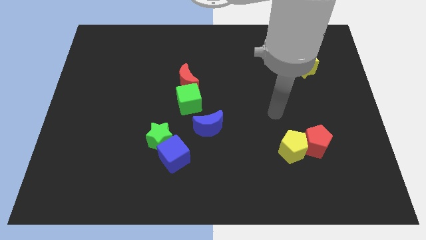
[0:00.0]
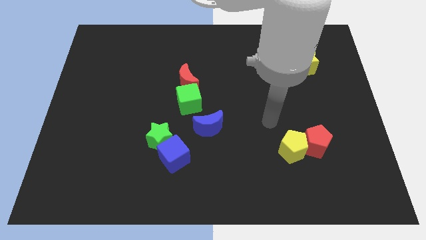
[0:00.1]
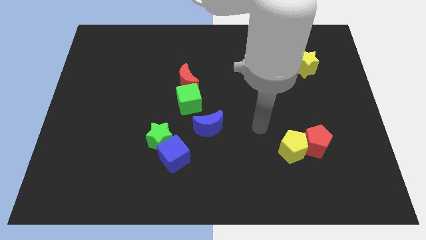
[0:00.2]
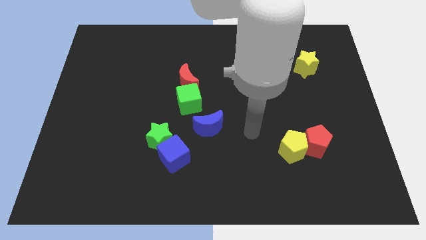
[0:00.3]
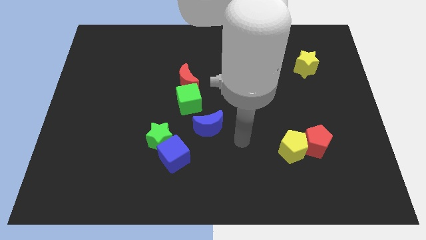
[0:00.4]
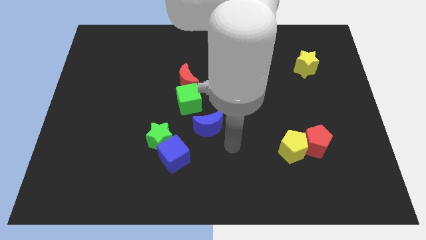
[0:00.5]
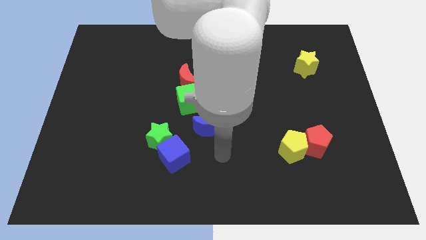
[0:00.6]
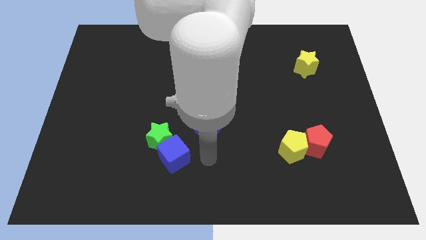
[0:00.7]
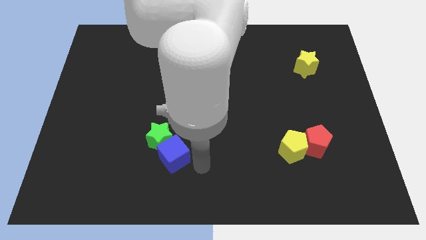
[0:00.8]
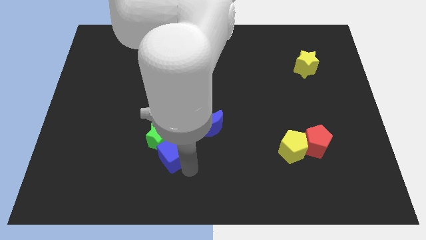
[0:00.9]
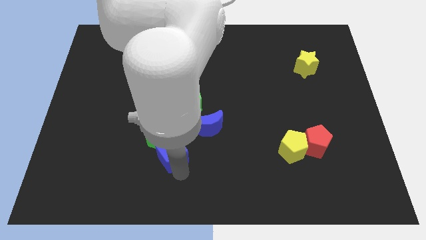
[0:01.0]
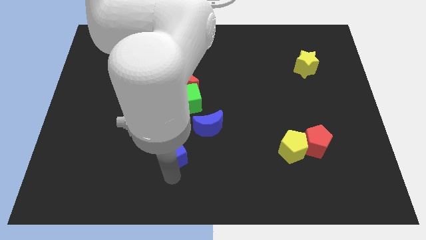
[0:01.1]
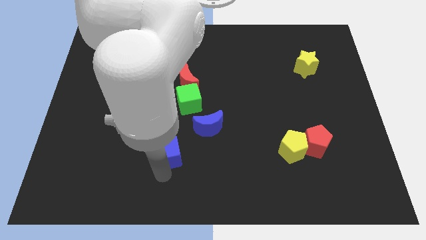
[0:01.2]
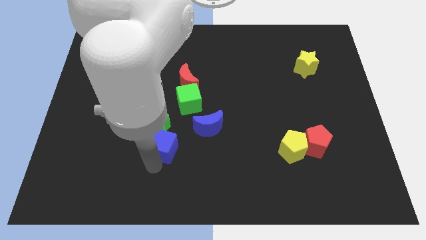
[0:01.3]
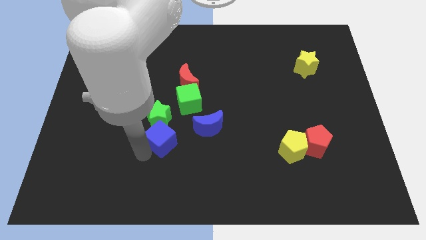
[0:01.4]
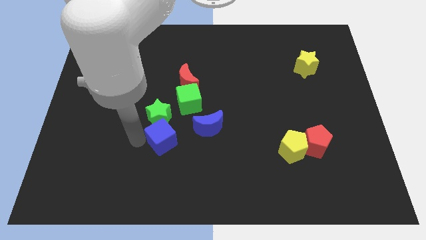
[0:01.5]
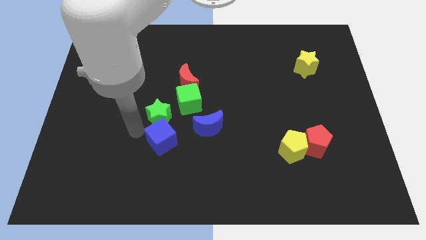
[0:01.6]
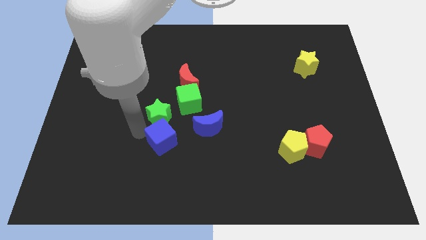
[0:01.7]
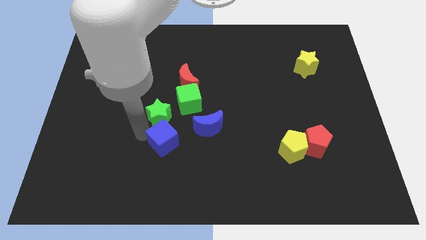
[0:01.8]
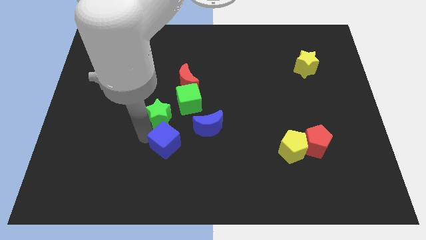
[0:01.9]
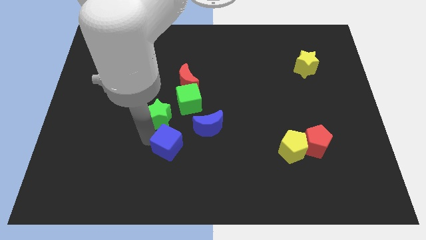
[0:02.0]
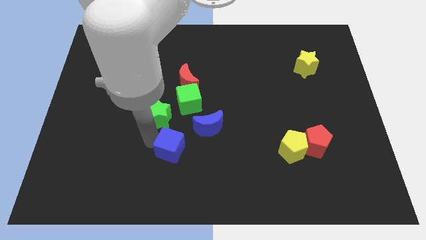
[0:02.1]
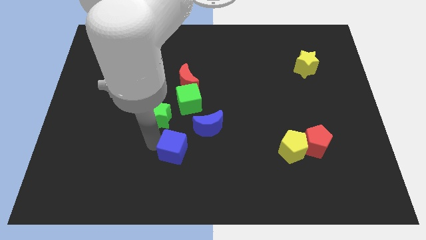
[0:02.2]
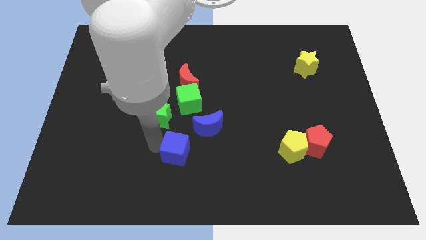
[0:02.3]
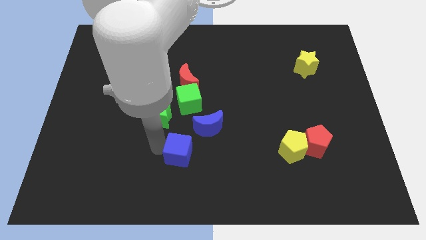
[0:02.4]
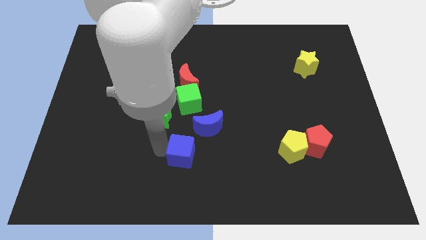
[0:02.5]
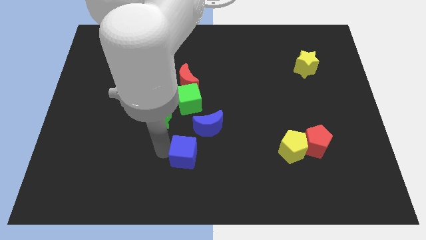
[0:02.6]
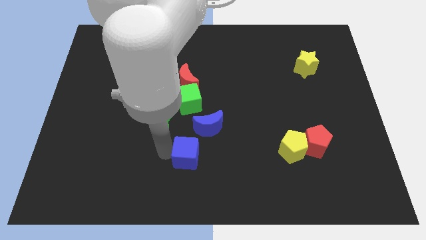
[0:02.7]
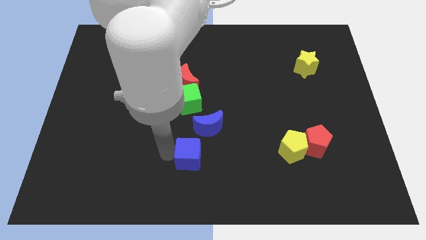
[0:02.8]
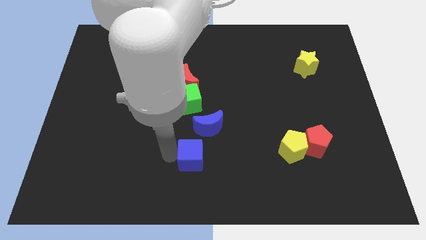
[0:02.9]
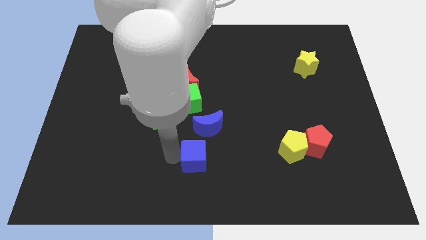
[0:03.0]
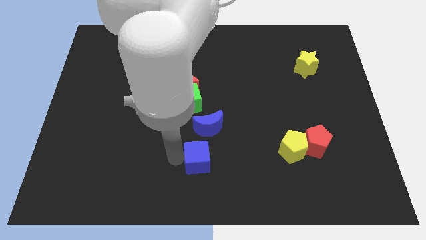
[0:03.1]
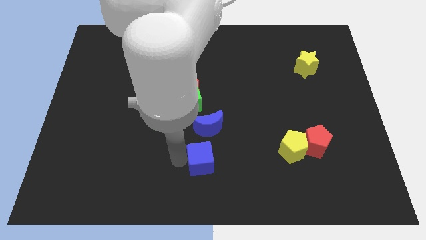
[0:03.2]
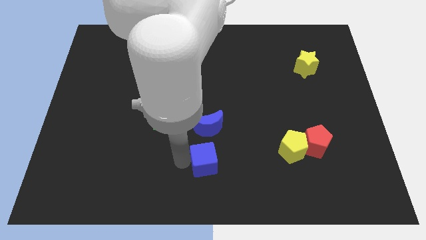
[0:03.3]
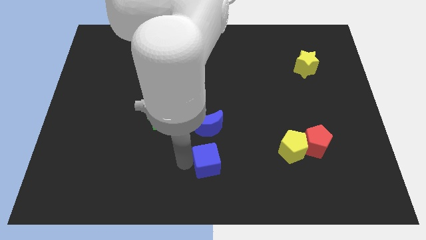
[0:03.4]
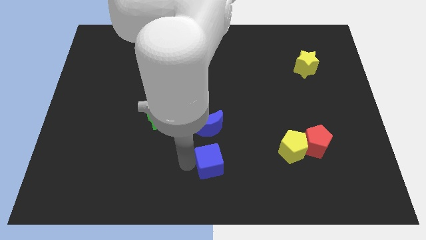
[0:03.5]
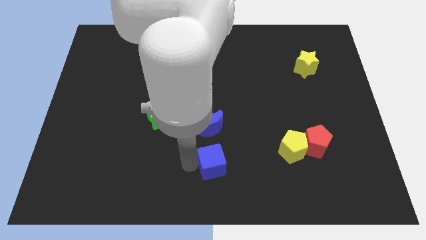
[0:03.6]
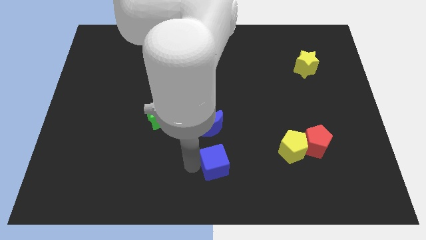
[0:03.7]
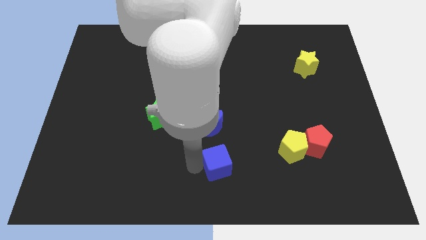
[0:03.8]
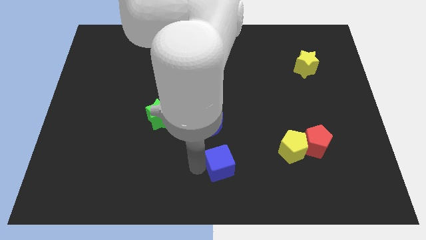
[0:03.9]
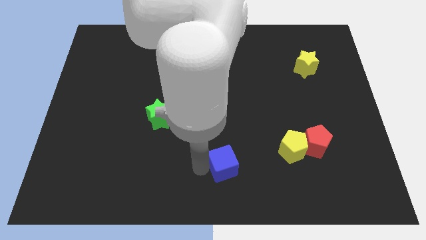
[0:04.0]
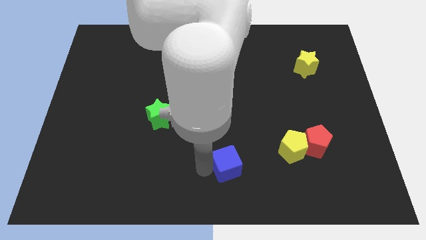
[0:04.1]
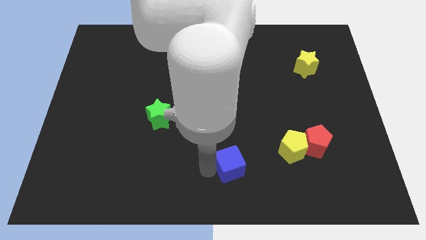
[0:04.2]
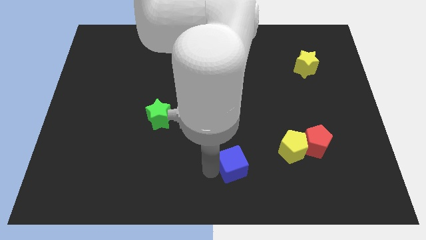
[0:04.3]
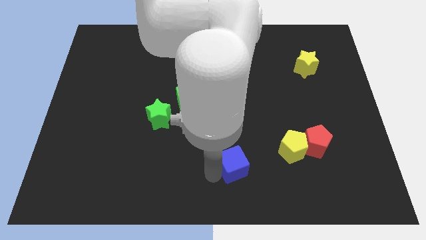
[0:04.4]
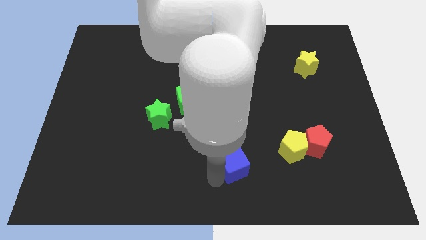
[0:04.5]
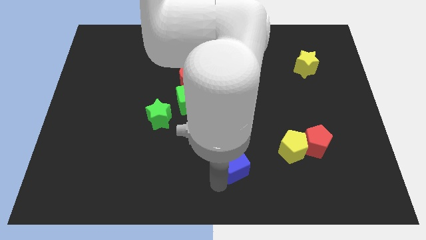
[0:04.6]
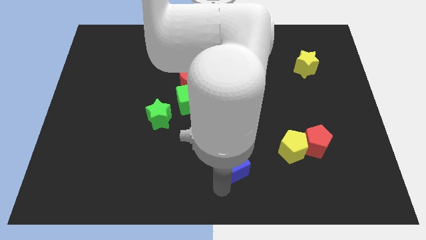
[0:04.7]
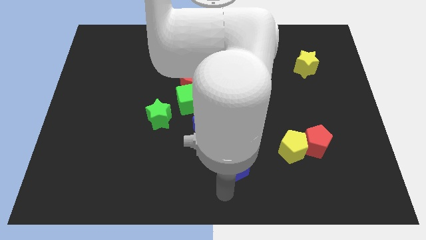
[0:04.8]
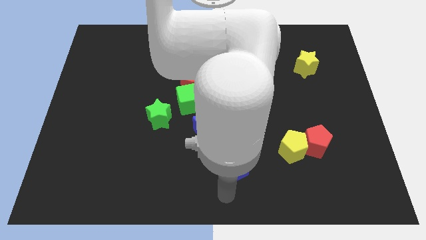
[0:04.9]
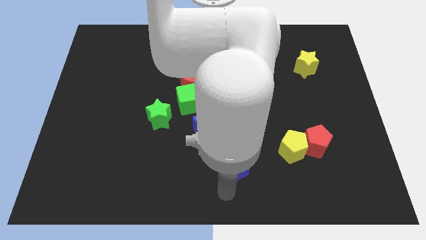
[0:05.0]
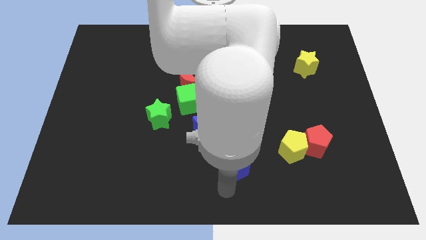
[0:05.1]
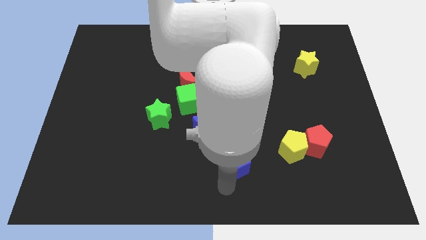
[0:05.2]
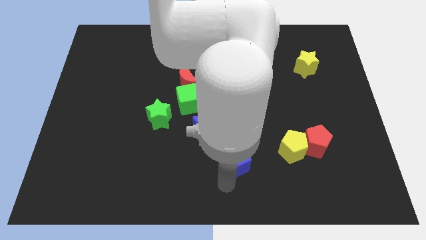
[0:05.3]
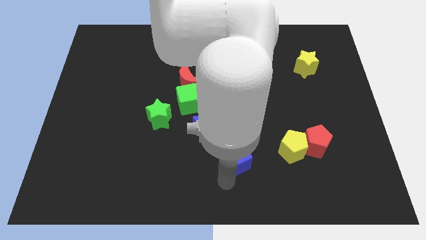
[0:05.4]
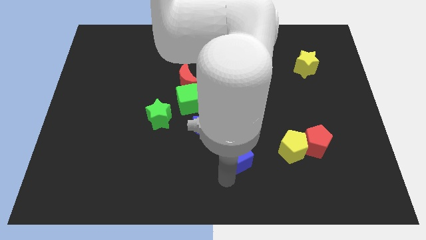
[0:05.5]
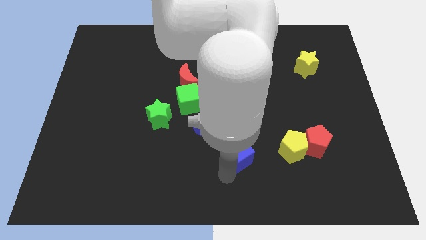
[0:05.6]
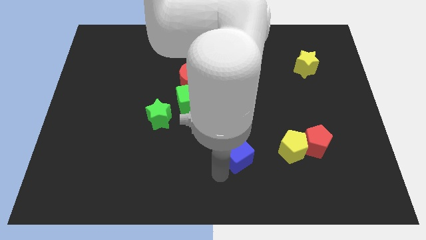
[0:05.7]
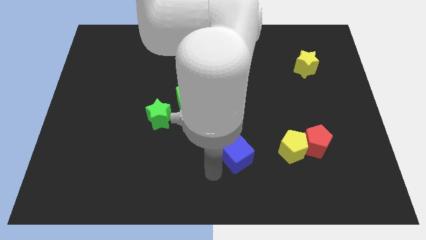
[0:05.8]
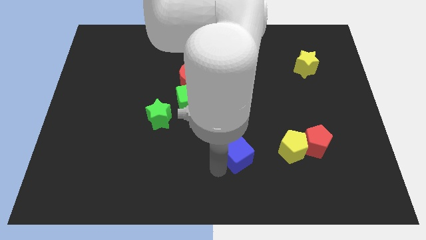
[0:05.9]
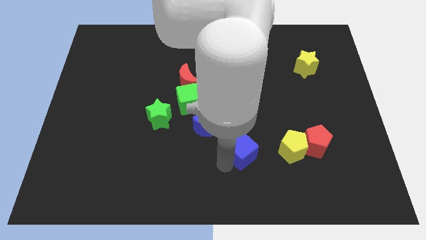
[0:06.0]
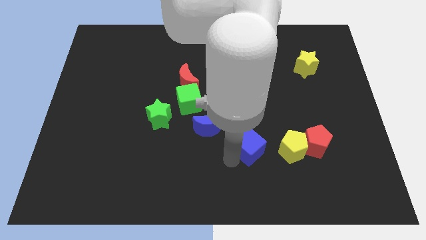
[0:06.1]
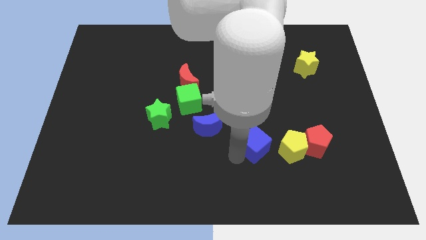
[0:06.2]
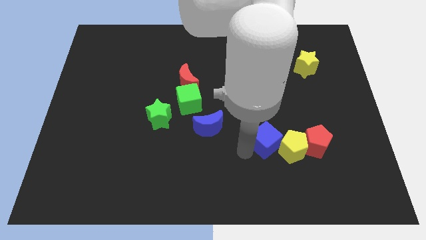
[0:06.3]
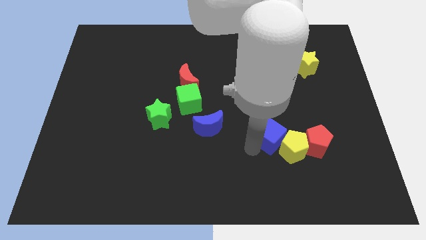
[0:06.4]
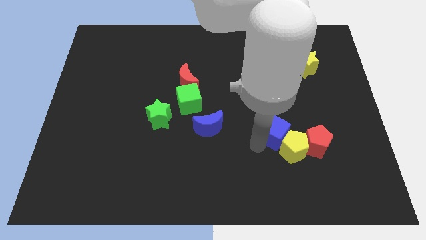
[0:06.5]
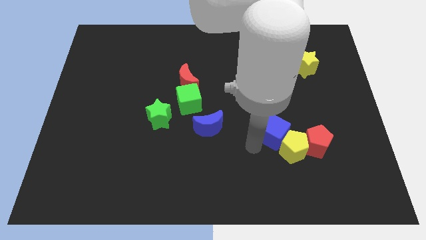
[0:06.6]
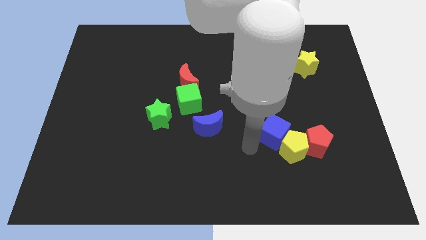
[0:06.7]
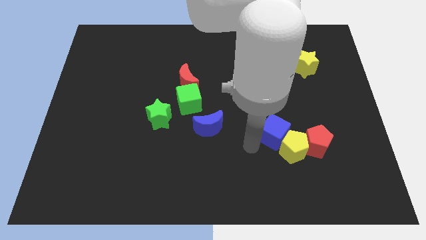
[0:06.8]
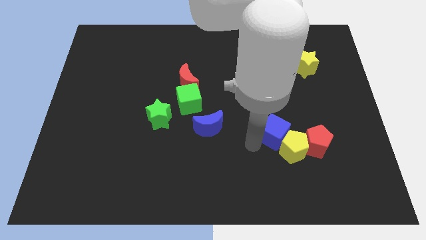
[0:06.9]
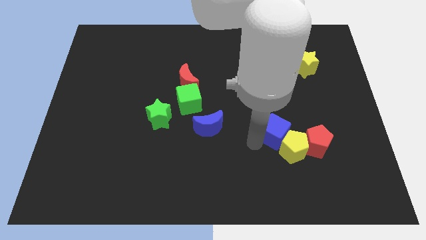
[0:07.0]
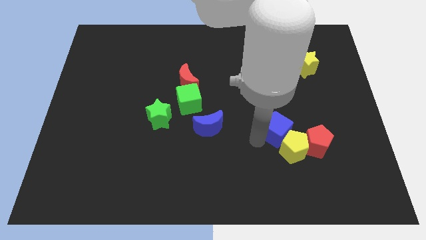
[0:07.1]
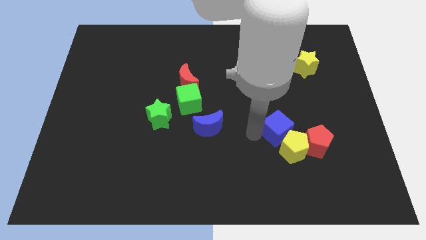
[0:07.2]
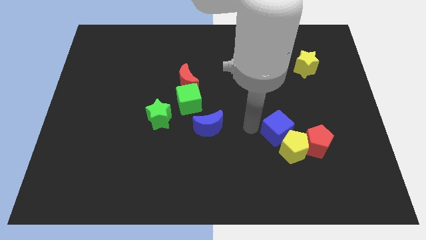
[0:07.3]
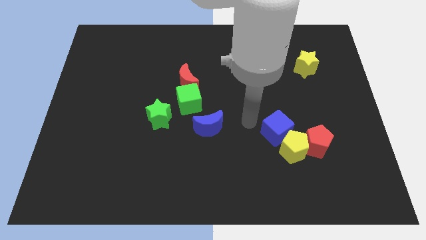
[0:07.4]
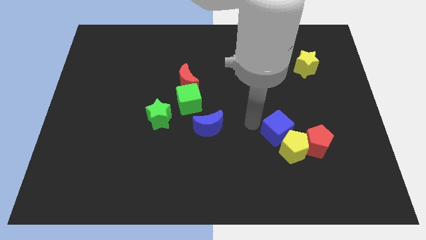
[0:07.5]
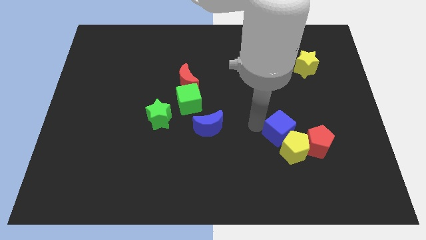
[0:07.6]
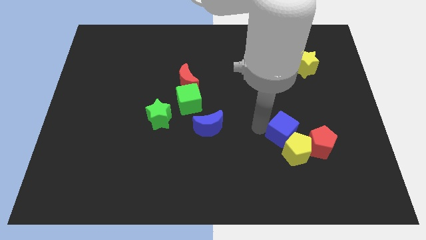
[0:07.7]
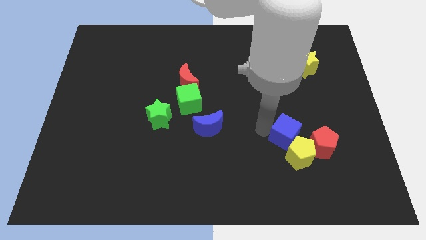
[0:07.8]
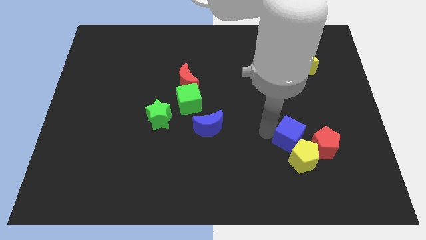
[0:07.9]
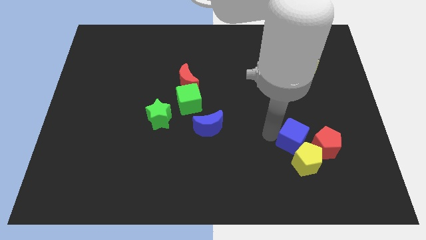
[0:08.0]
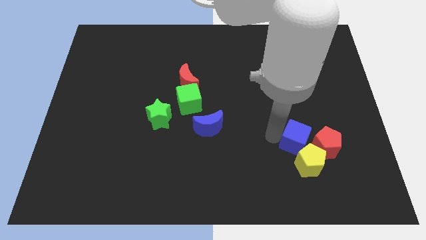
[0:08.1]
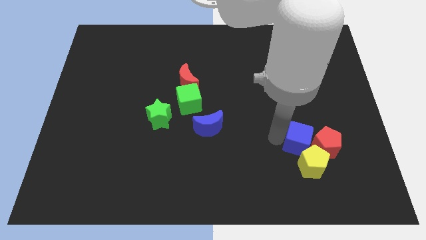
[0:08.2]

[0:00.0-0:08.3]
put the blue cube next to the red pentagon
